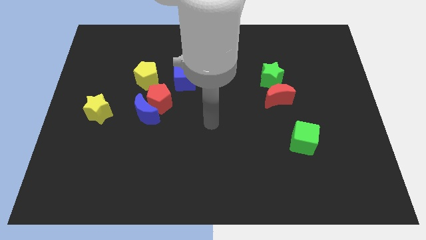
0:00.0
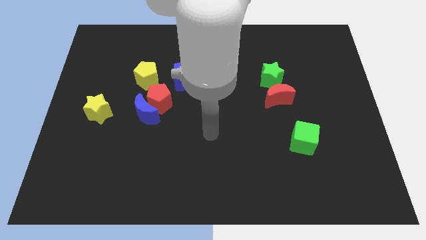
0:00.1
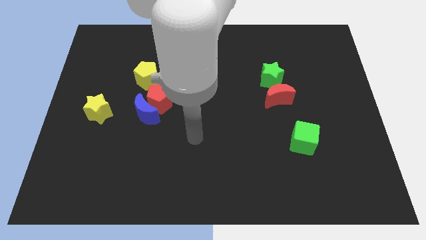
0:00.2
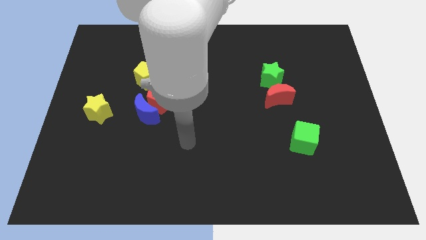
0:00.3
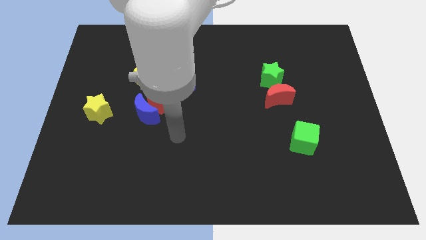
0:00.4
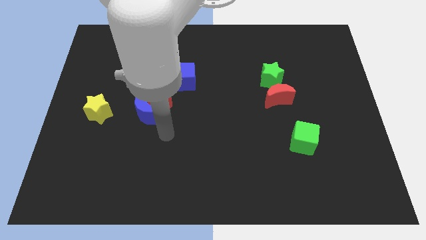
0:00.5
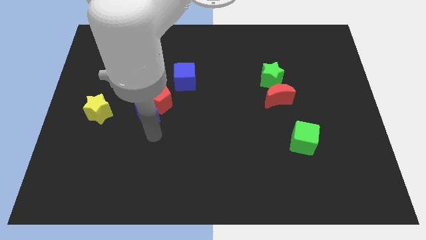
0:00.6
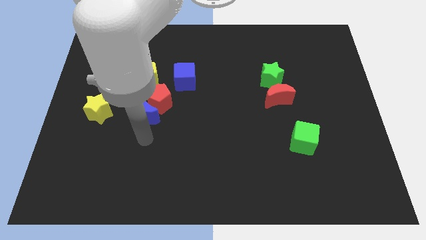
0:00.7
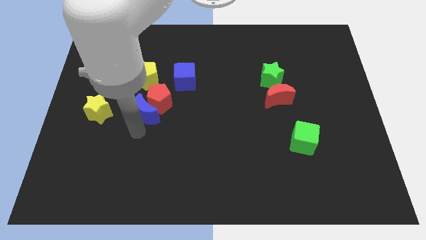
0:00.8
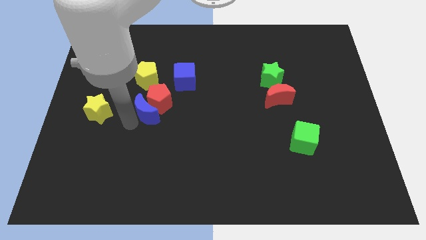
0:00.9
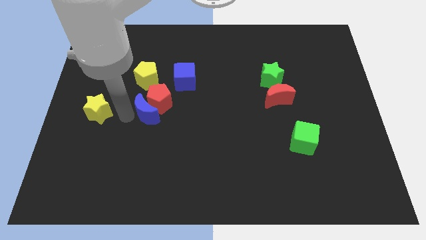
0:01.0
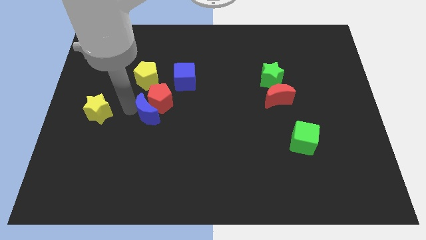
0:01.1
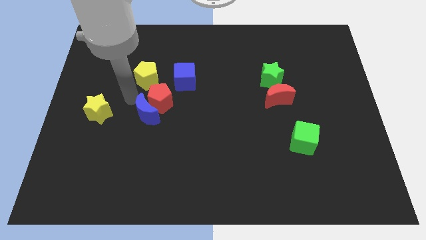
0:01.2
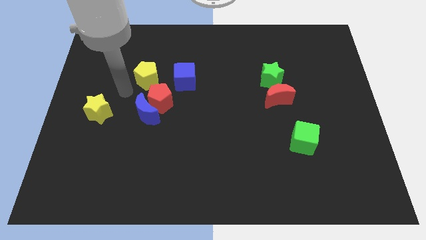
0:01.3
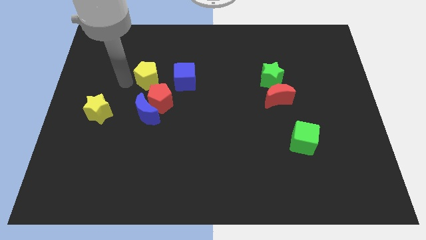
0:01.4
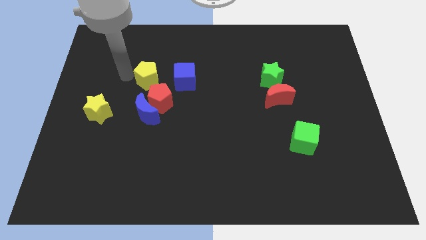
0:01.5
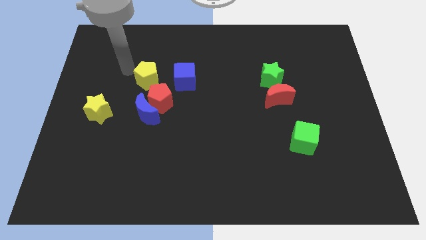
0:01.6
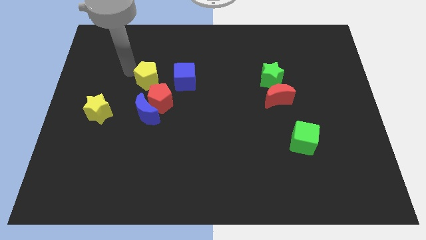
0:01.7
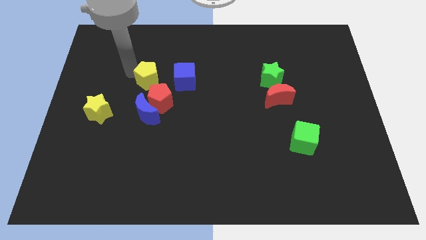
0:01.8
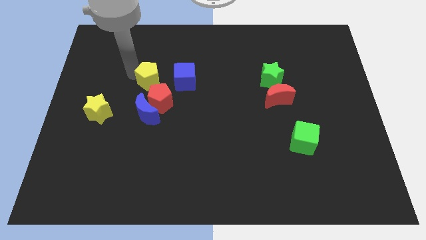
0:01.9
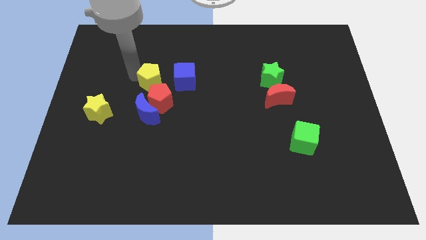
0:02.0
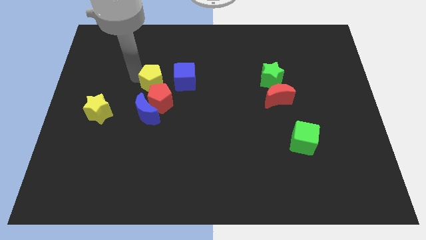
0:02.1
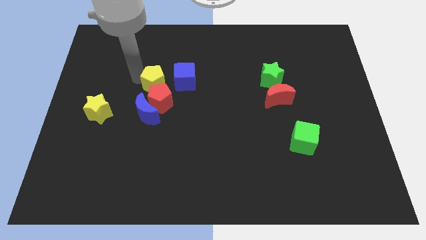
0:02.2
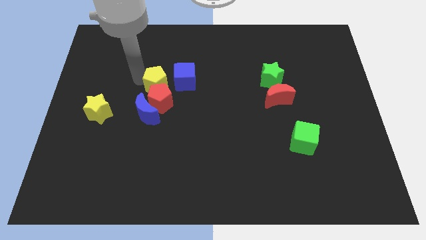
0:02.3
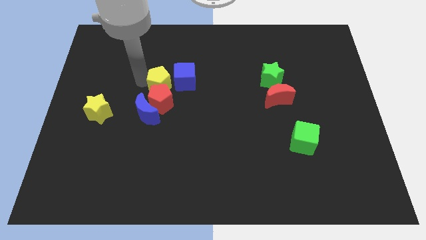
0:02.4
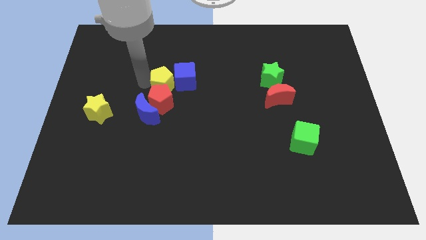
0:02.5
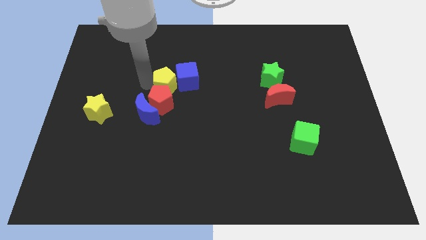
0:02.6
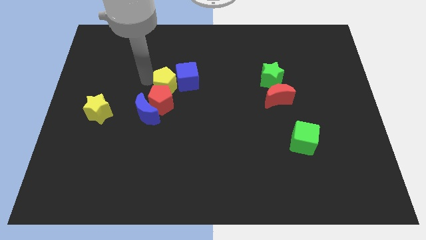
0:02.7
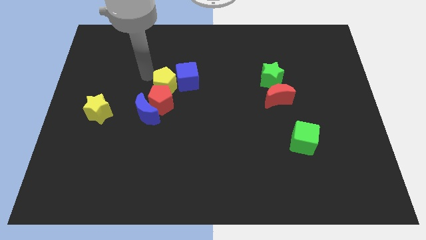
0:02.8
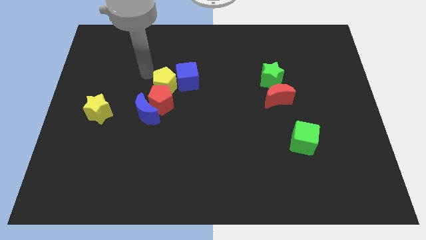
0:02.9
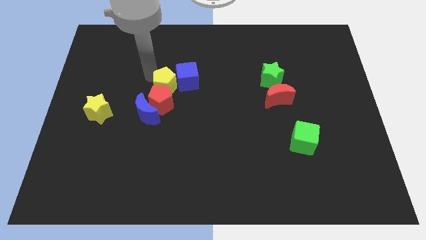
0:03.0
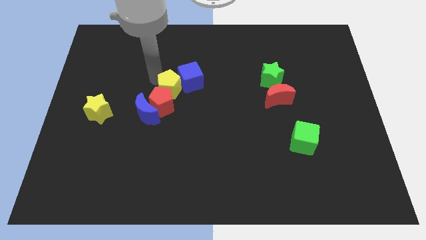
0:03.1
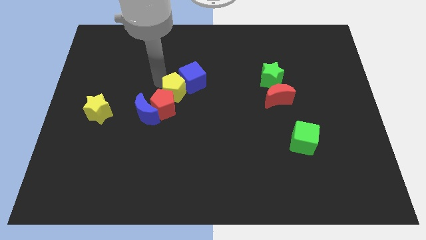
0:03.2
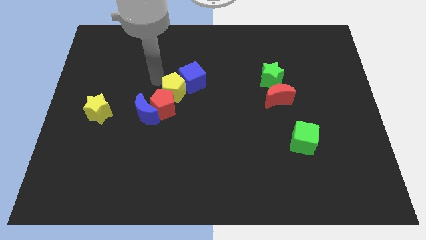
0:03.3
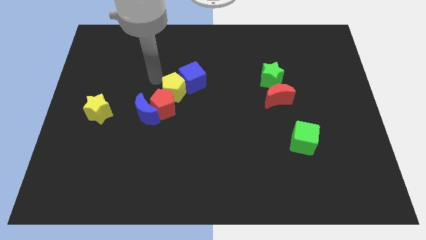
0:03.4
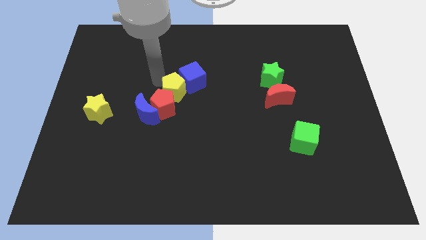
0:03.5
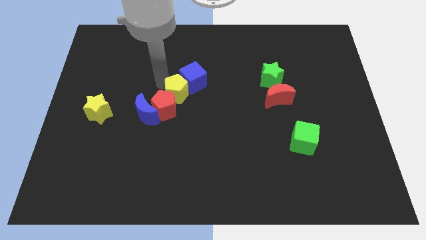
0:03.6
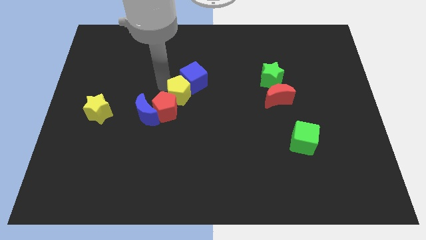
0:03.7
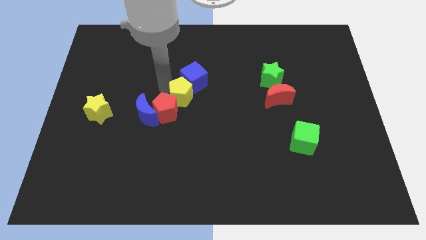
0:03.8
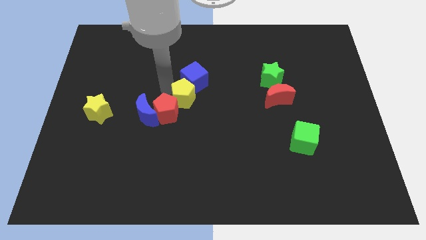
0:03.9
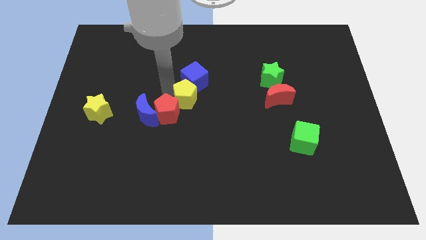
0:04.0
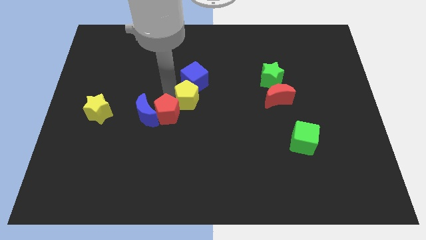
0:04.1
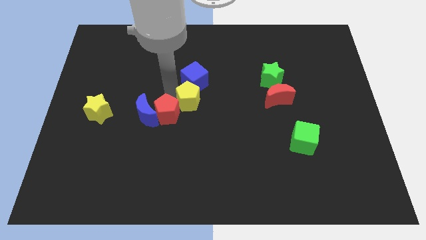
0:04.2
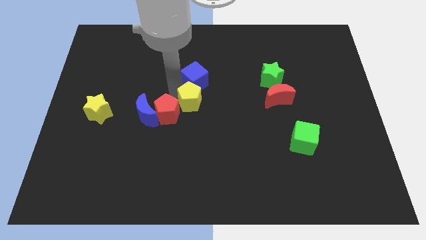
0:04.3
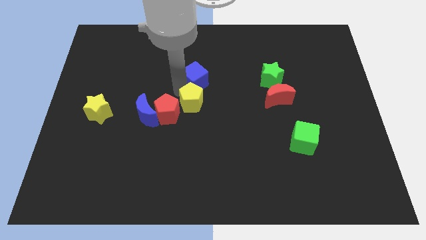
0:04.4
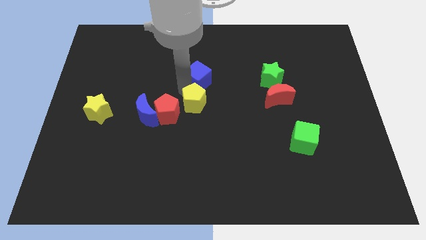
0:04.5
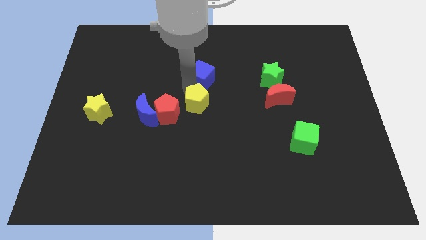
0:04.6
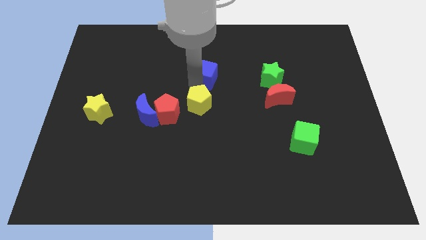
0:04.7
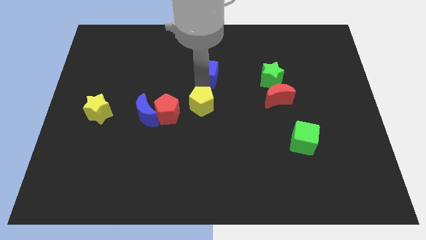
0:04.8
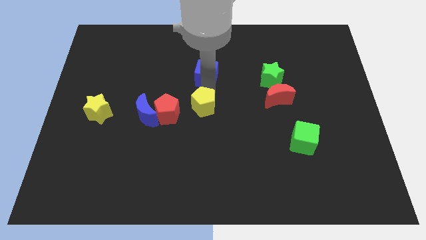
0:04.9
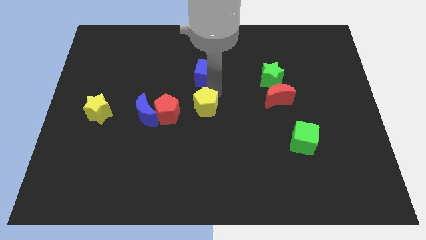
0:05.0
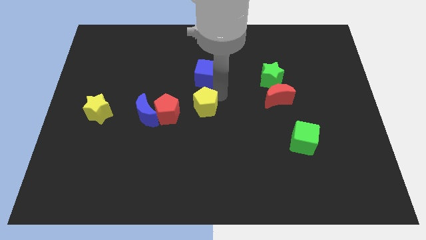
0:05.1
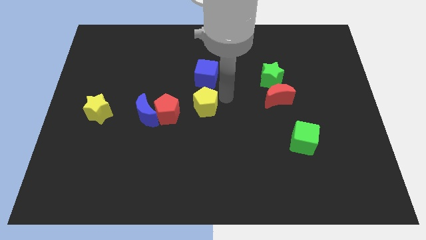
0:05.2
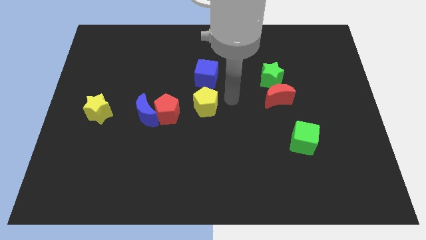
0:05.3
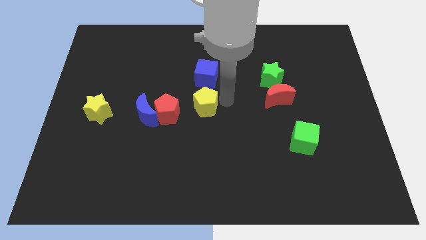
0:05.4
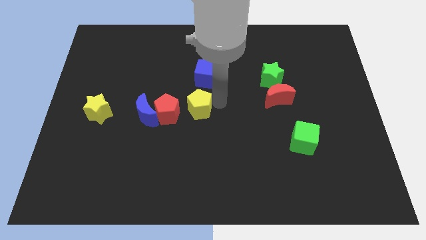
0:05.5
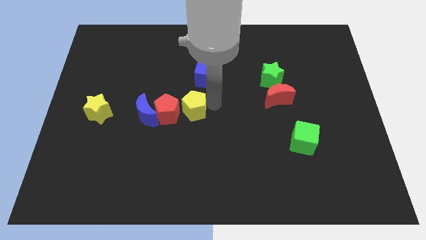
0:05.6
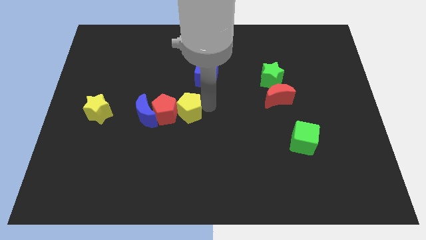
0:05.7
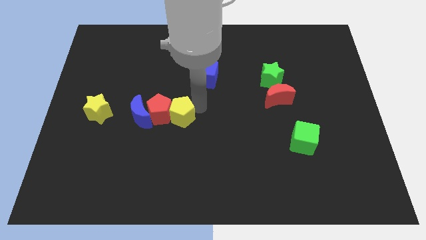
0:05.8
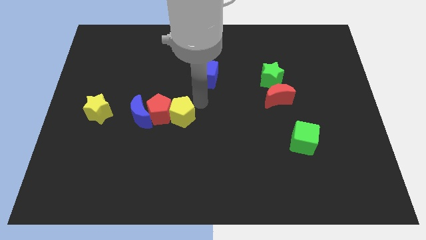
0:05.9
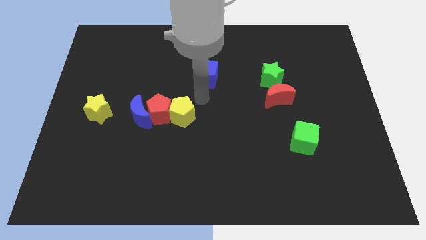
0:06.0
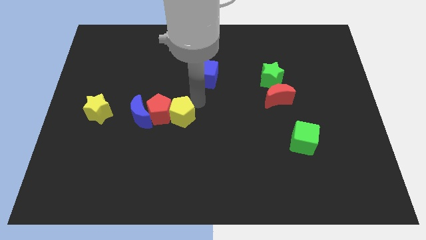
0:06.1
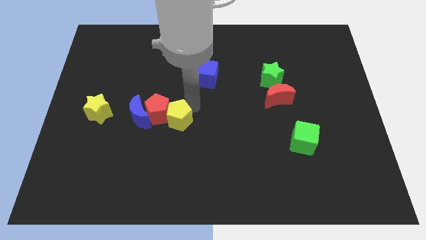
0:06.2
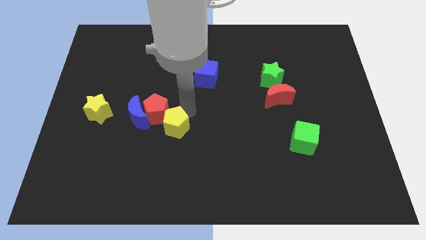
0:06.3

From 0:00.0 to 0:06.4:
slide the yellow pentagon to the bottom right side of the blue moon
